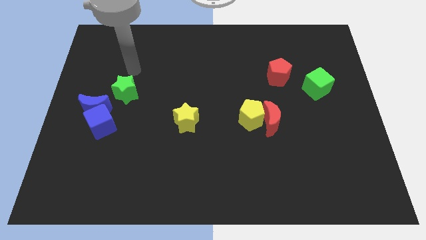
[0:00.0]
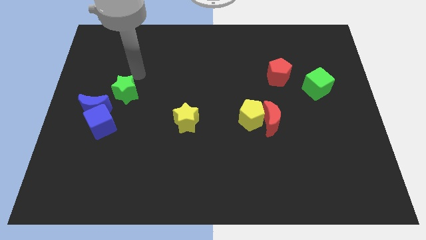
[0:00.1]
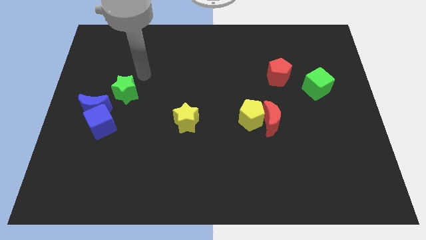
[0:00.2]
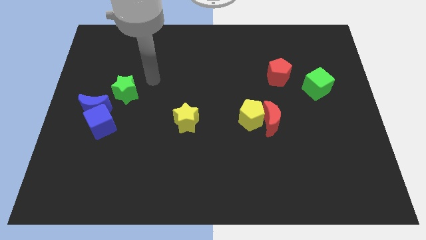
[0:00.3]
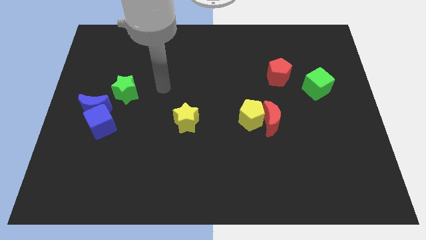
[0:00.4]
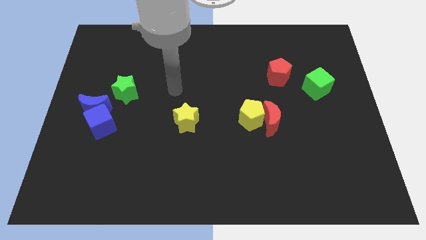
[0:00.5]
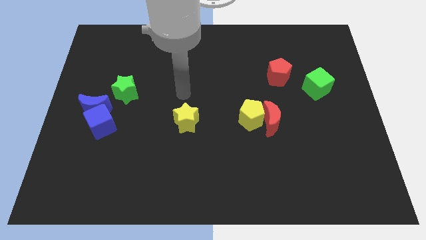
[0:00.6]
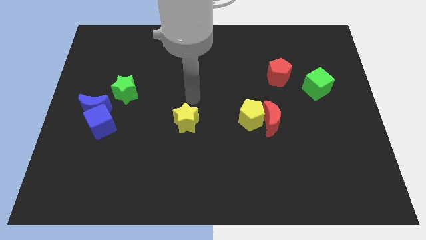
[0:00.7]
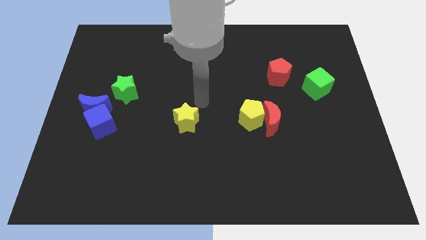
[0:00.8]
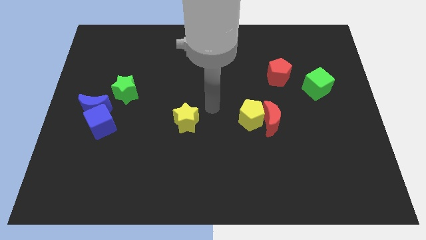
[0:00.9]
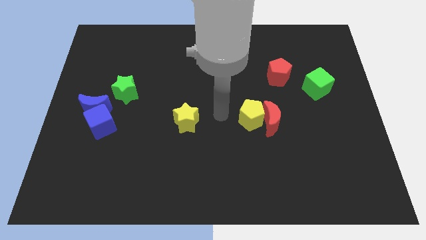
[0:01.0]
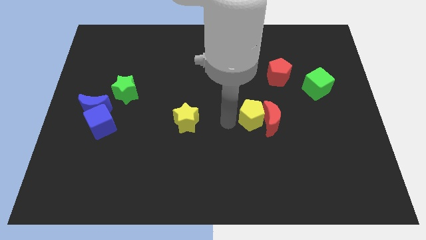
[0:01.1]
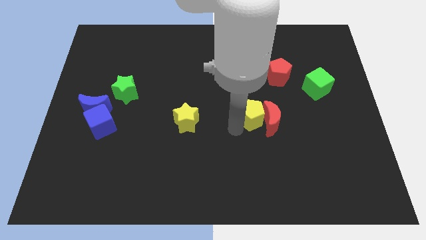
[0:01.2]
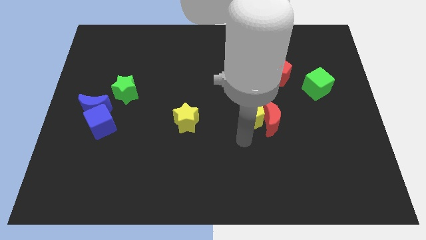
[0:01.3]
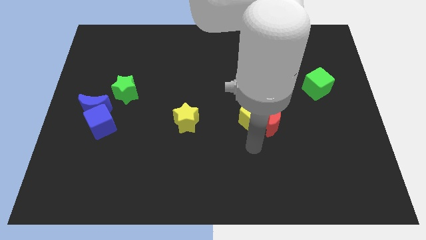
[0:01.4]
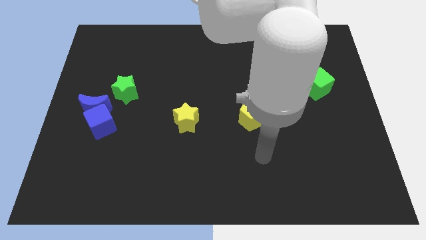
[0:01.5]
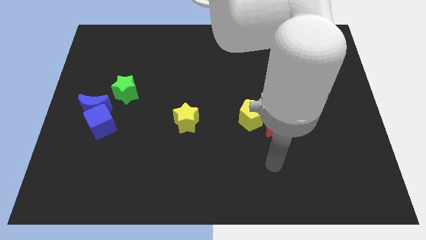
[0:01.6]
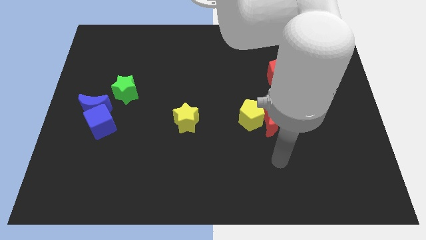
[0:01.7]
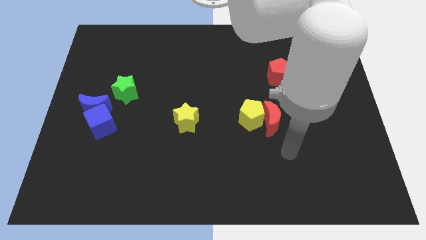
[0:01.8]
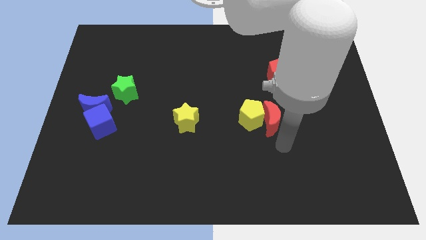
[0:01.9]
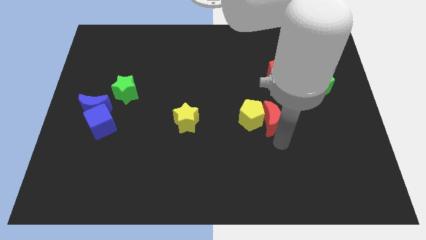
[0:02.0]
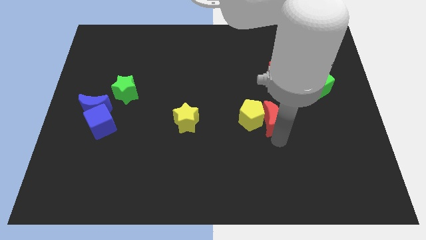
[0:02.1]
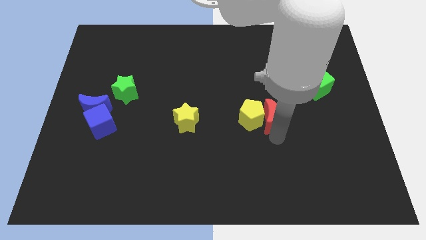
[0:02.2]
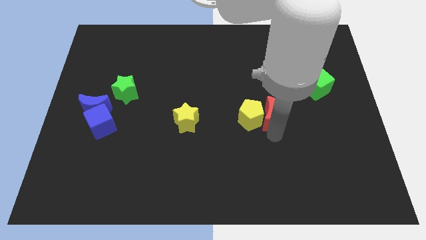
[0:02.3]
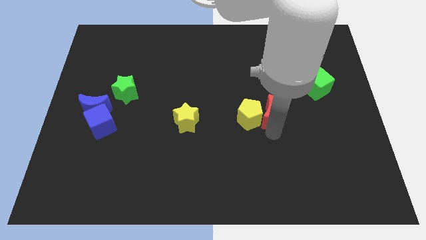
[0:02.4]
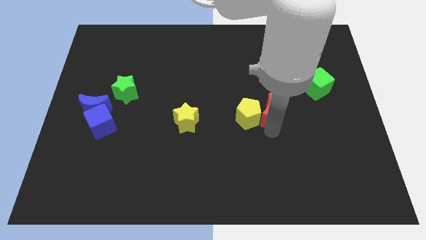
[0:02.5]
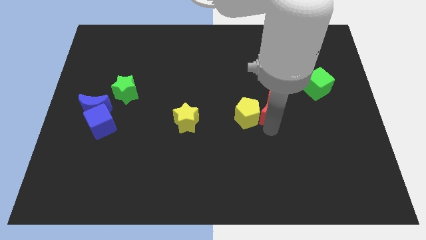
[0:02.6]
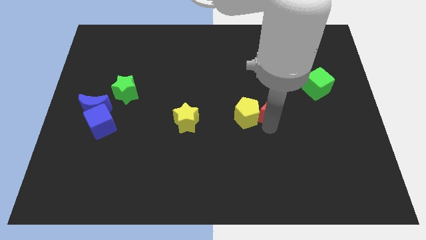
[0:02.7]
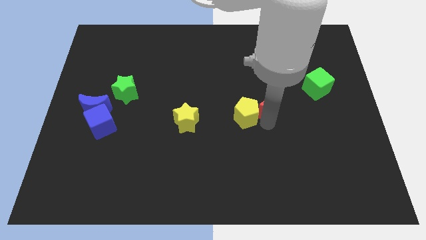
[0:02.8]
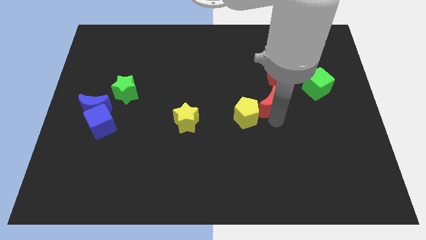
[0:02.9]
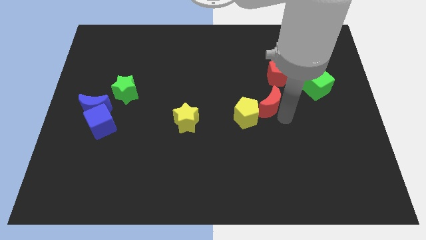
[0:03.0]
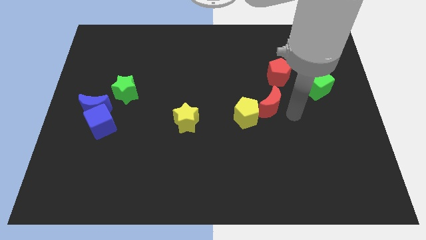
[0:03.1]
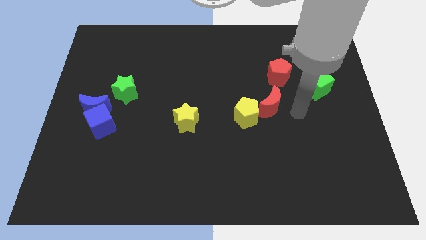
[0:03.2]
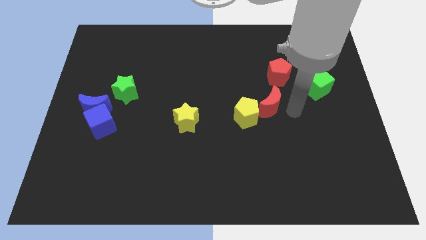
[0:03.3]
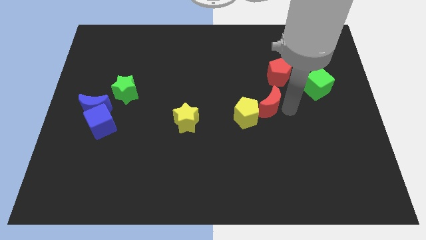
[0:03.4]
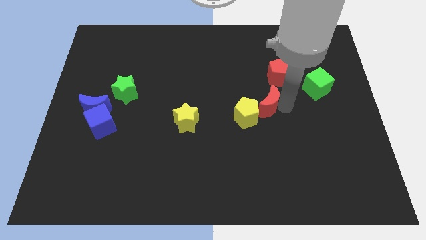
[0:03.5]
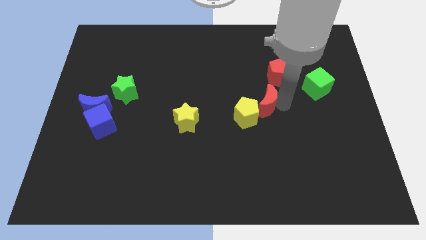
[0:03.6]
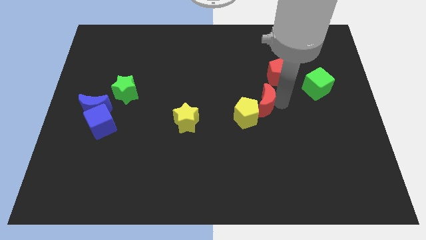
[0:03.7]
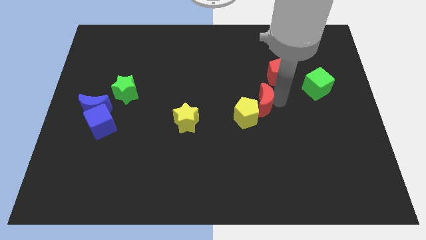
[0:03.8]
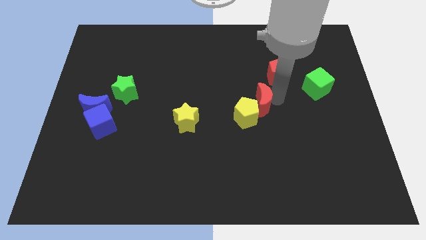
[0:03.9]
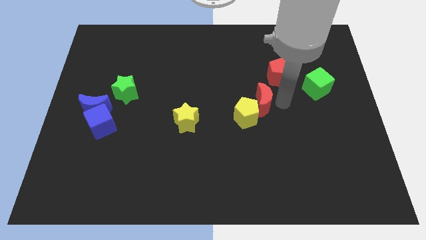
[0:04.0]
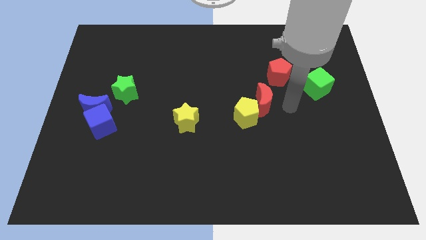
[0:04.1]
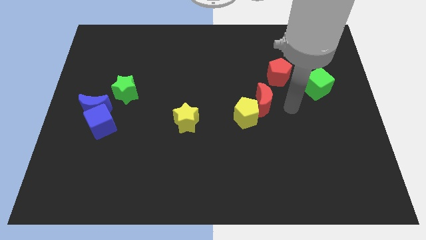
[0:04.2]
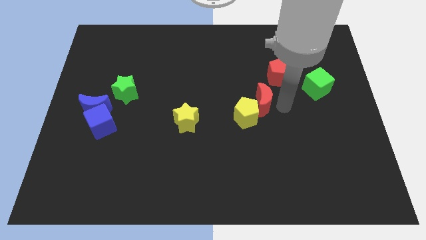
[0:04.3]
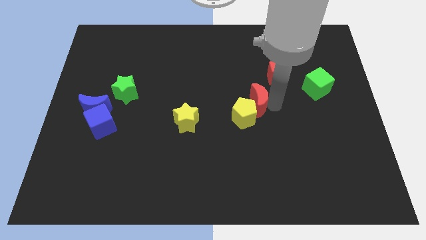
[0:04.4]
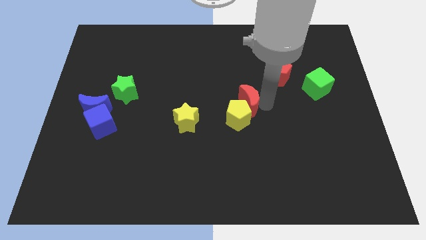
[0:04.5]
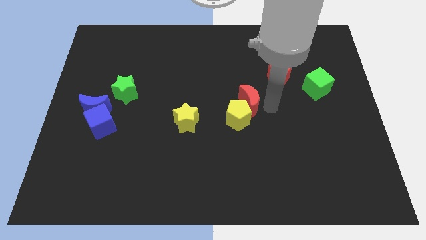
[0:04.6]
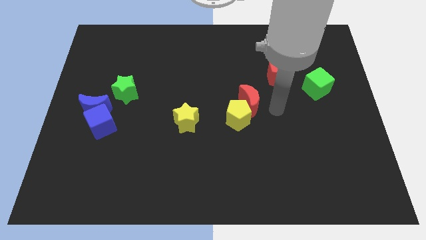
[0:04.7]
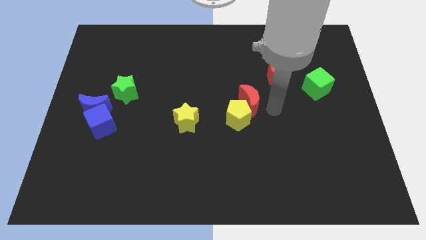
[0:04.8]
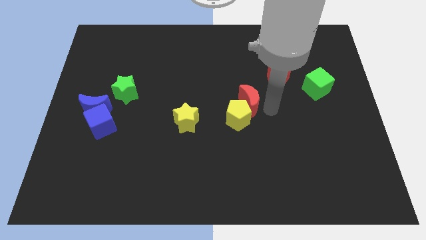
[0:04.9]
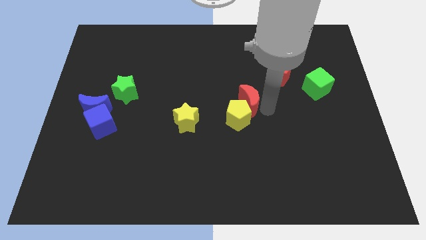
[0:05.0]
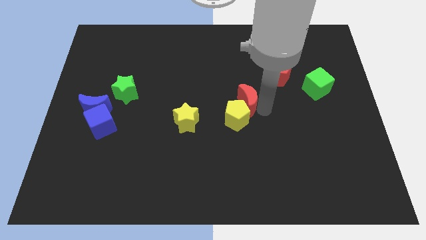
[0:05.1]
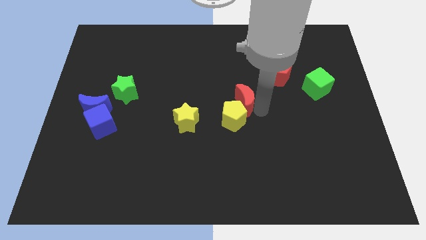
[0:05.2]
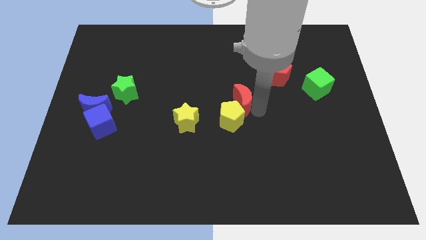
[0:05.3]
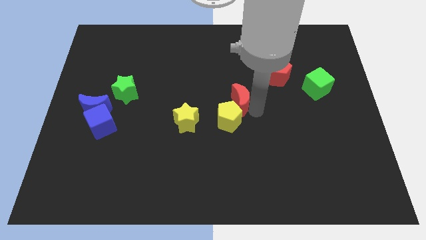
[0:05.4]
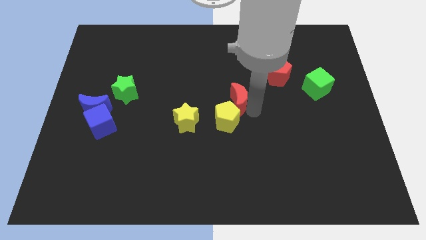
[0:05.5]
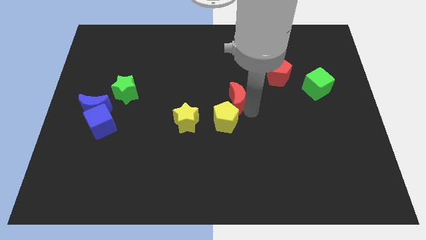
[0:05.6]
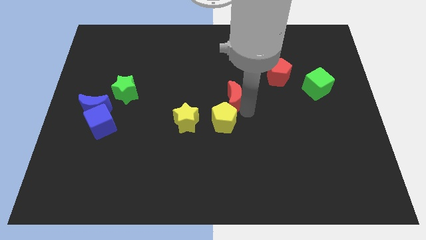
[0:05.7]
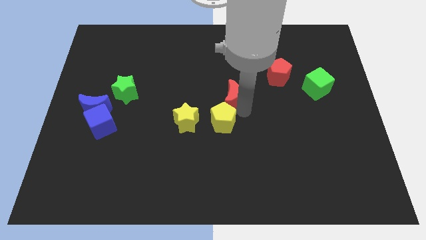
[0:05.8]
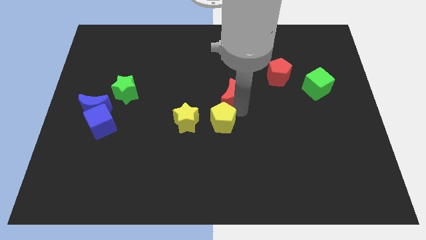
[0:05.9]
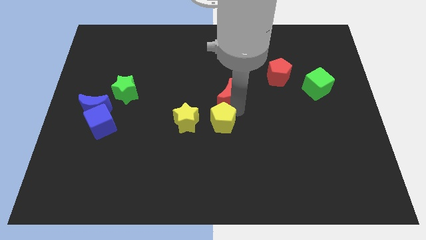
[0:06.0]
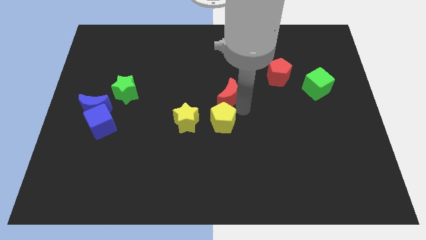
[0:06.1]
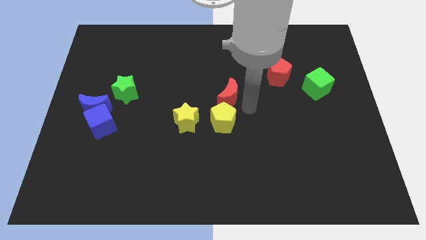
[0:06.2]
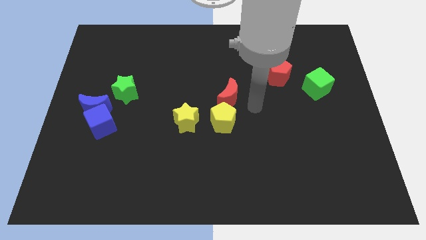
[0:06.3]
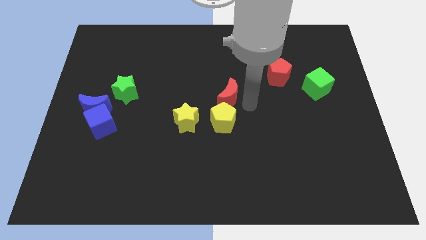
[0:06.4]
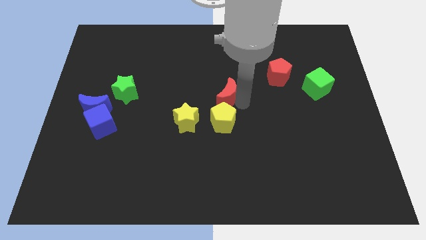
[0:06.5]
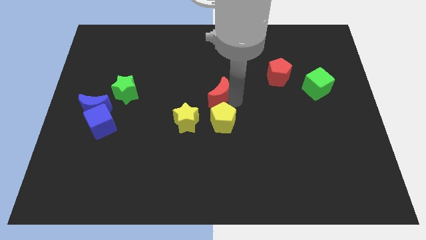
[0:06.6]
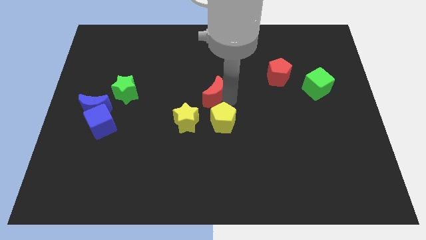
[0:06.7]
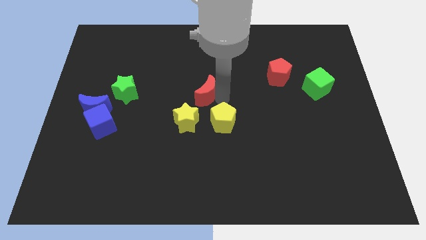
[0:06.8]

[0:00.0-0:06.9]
slide the red moon to the top of the yellow star
